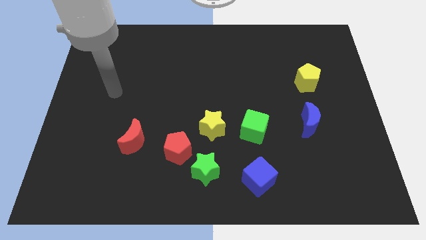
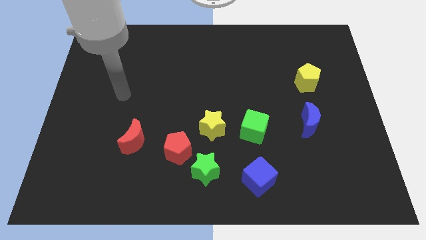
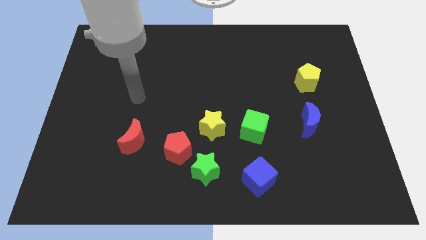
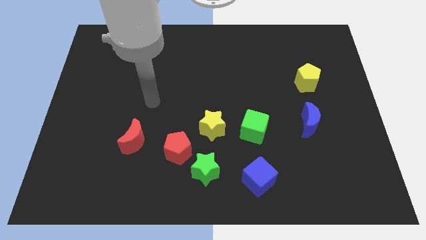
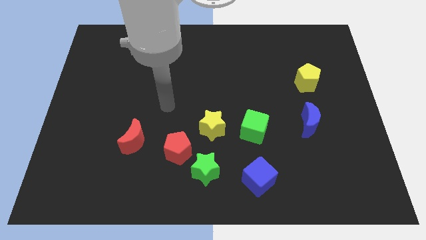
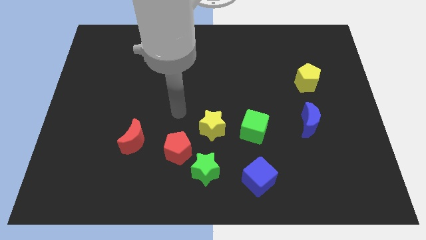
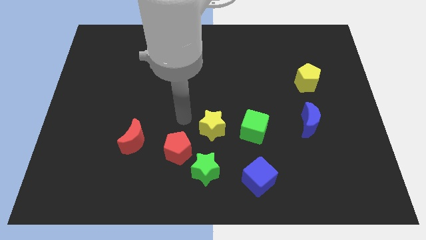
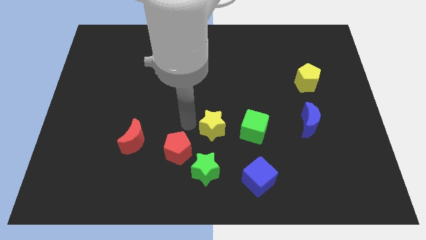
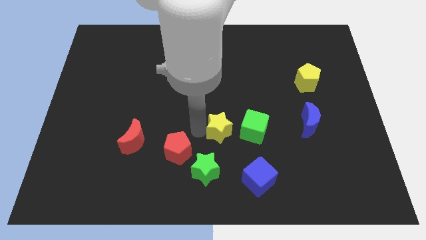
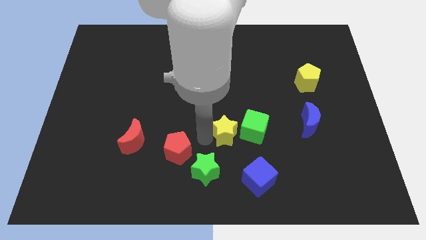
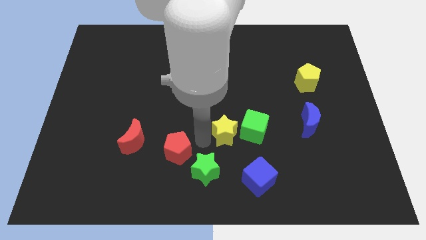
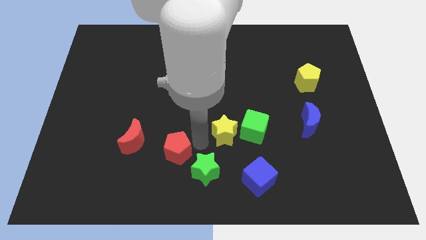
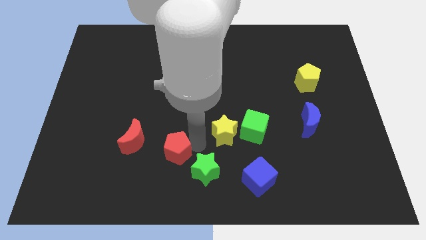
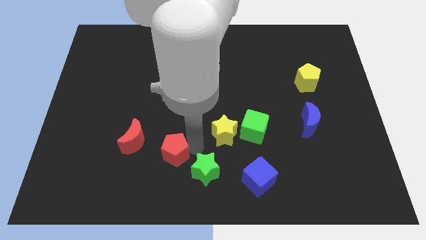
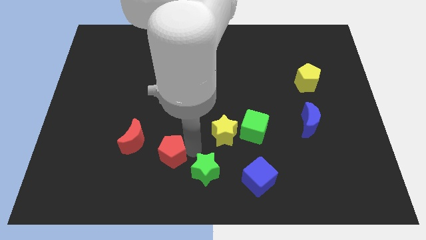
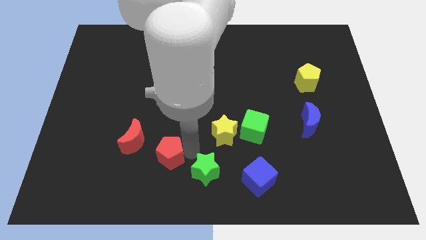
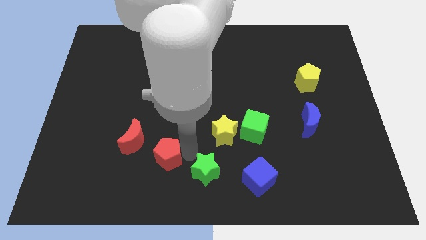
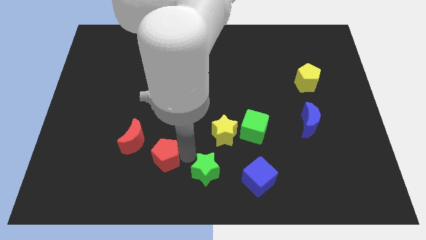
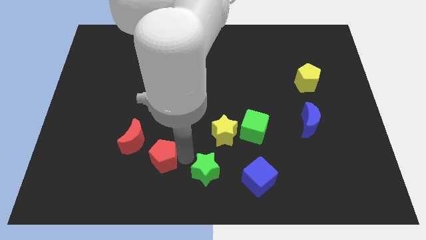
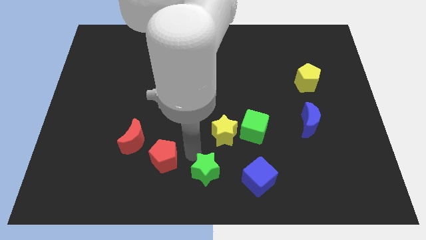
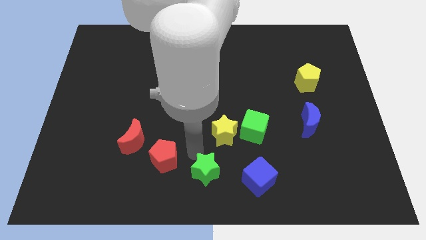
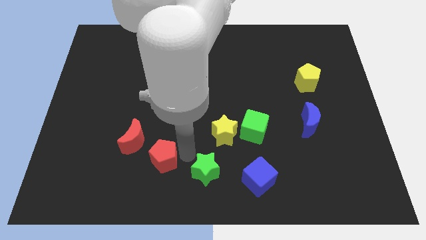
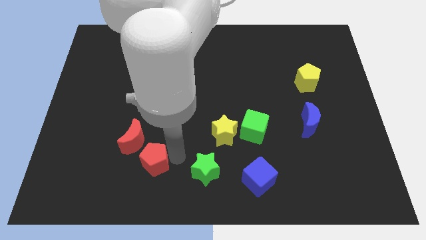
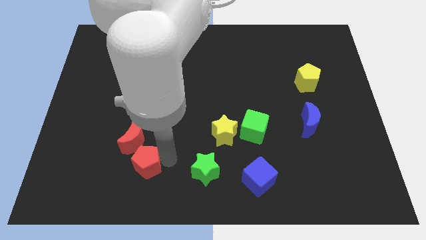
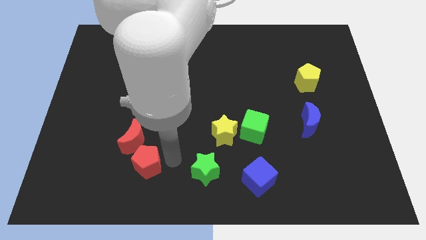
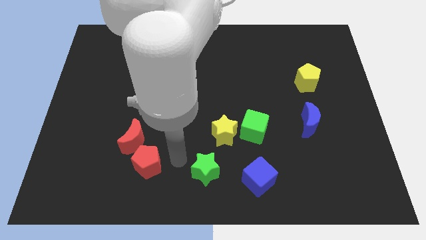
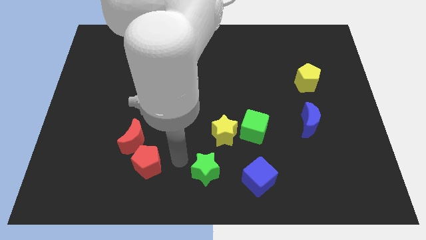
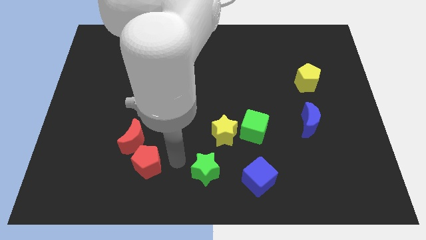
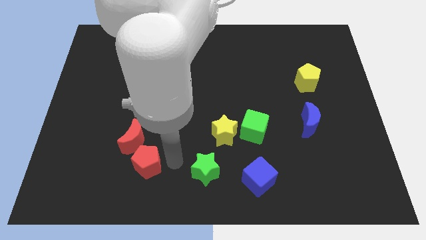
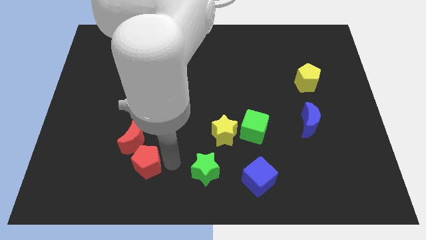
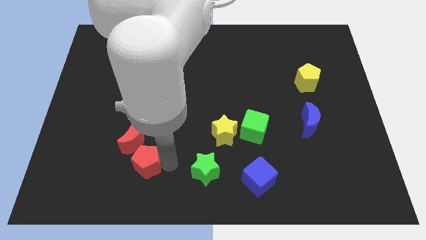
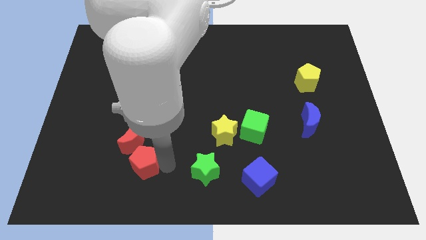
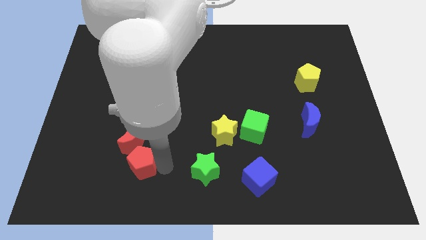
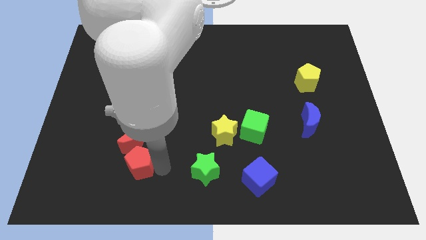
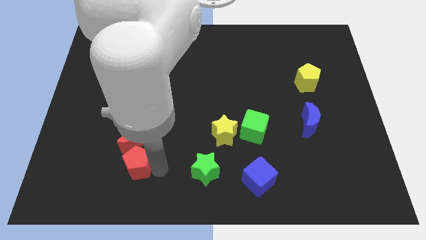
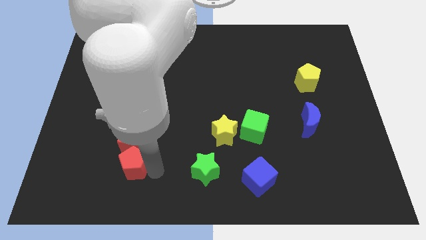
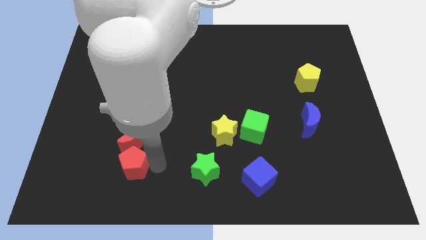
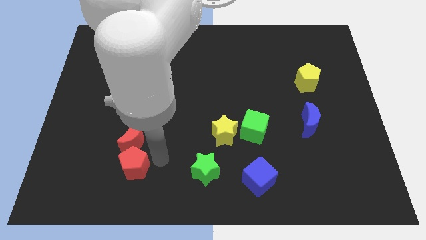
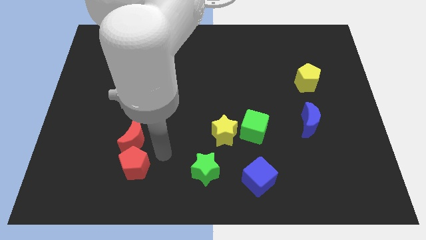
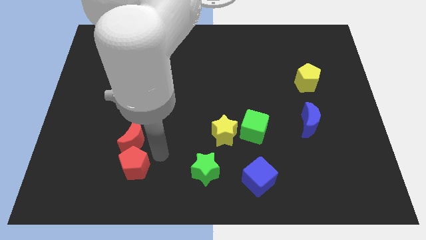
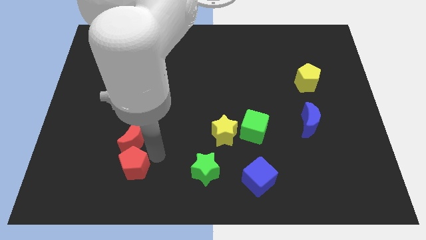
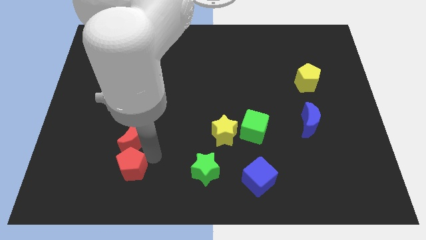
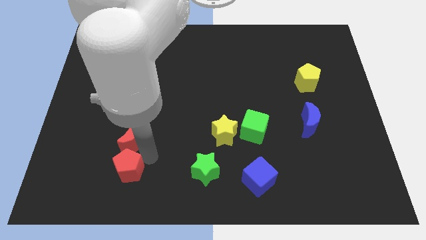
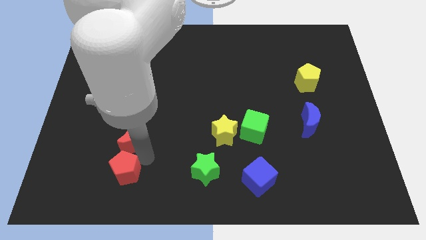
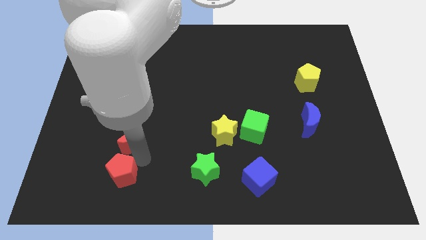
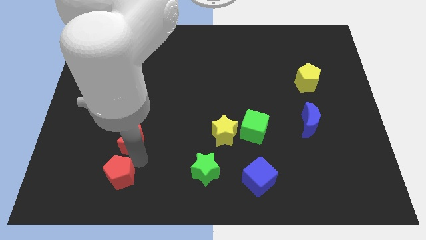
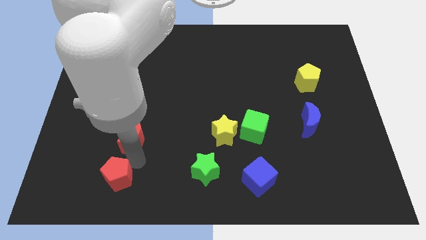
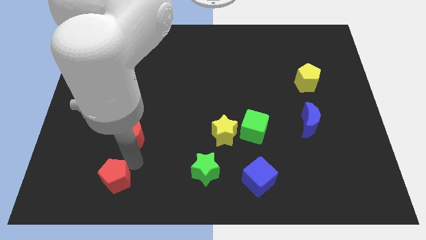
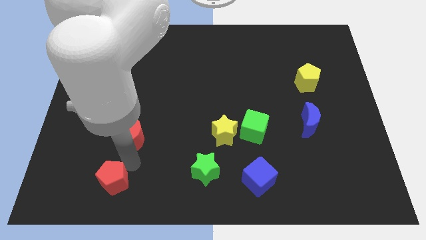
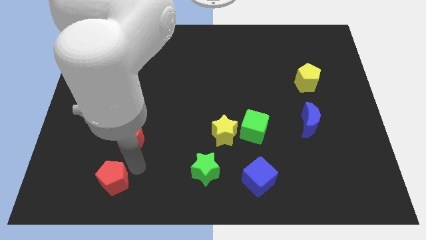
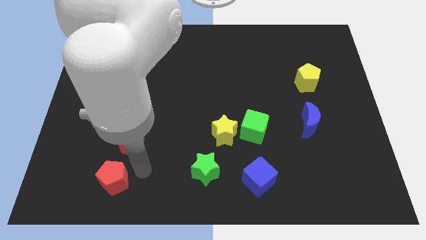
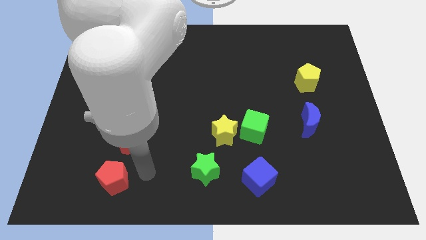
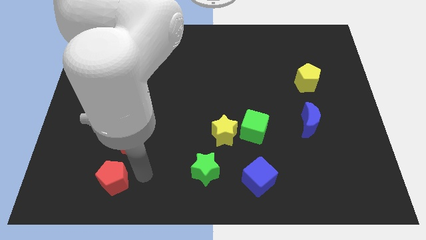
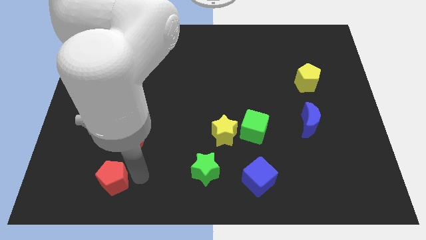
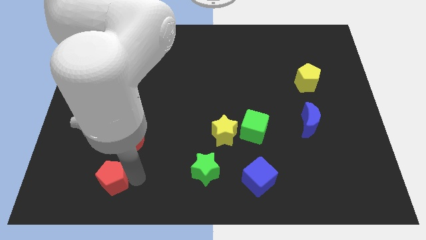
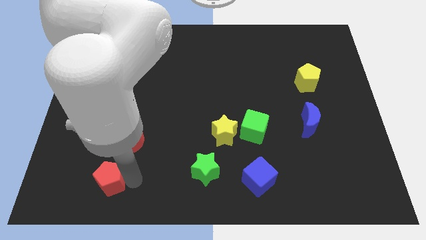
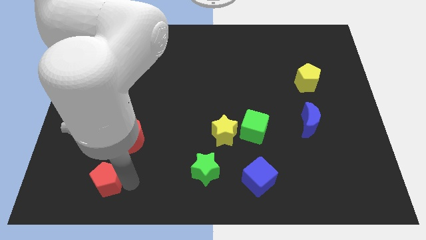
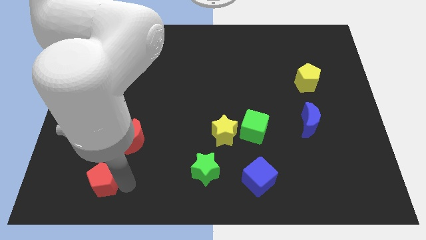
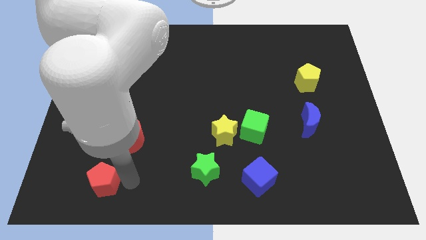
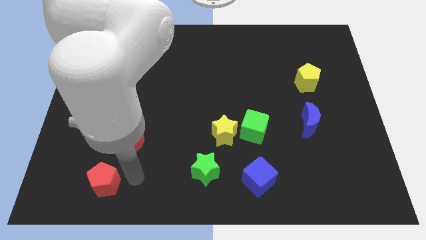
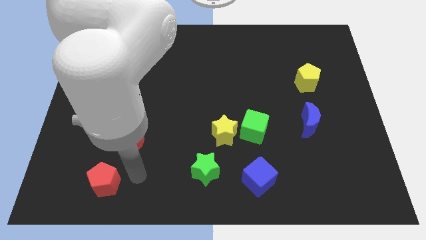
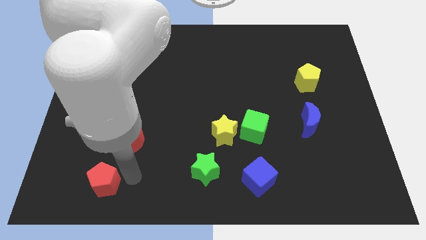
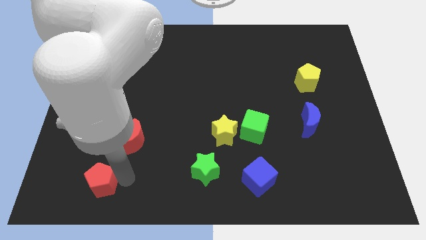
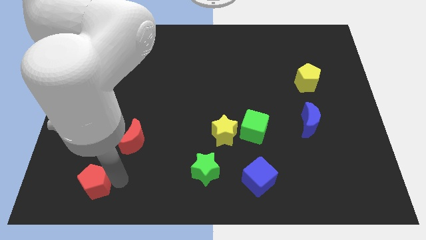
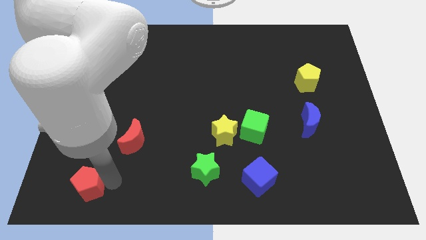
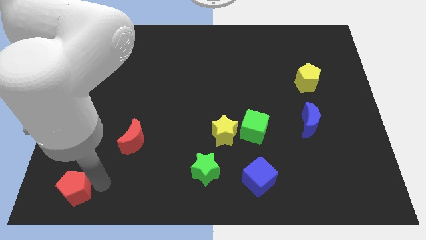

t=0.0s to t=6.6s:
slide the red pentagon to the bottom left of the board
